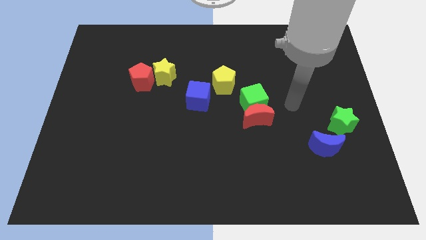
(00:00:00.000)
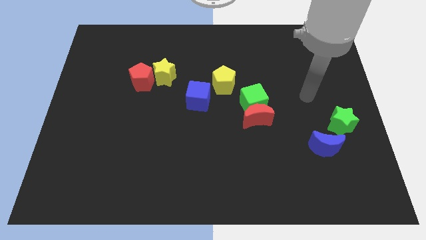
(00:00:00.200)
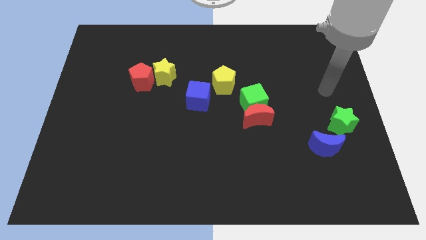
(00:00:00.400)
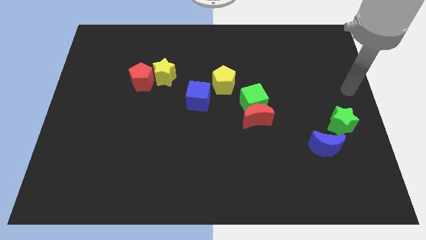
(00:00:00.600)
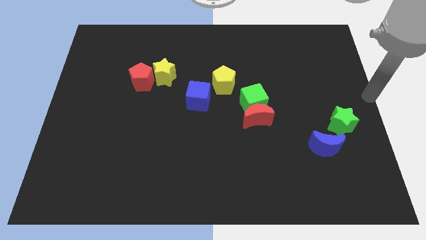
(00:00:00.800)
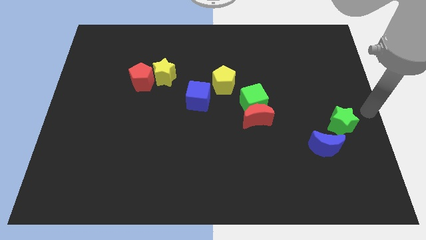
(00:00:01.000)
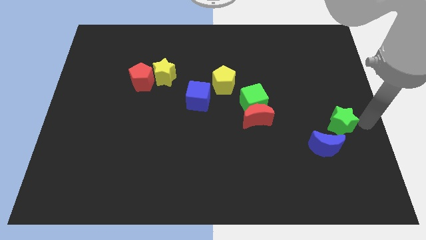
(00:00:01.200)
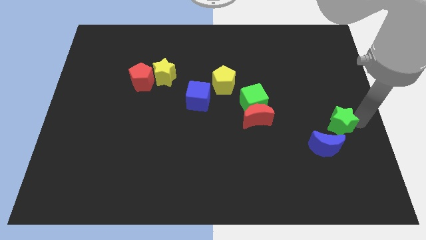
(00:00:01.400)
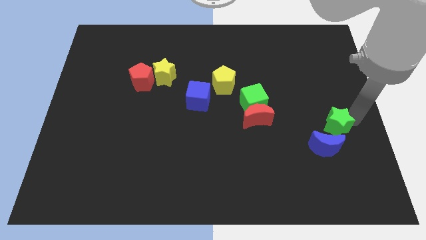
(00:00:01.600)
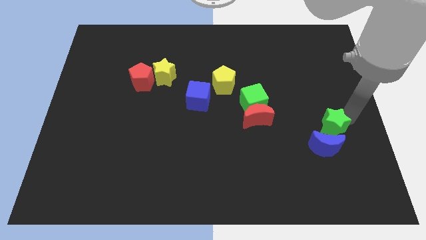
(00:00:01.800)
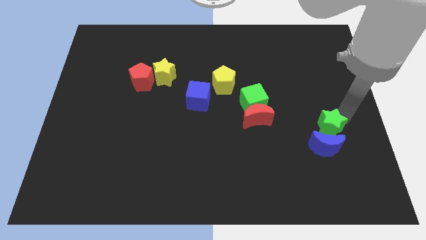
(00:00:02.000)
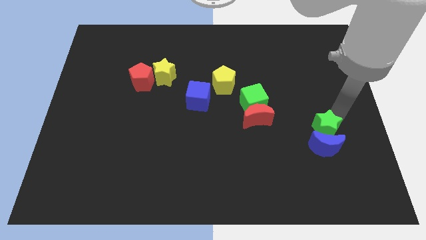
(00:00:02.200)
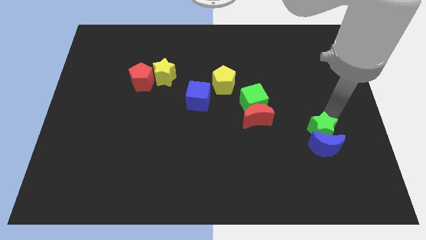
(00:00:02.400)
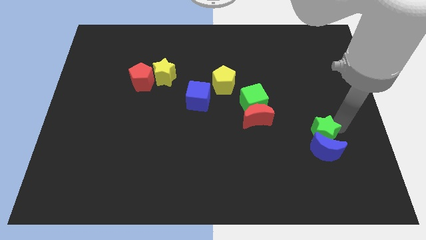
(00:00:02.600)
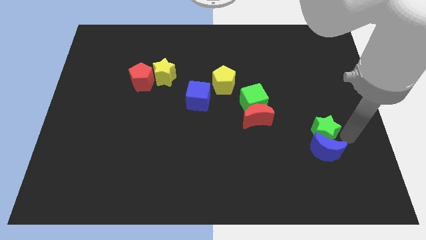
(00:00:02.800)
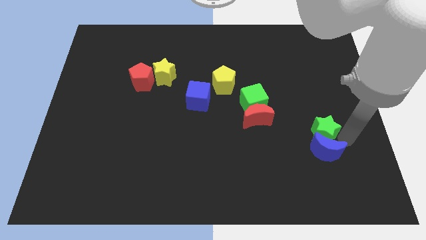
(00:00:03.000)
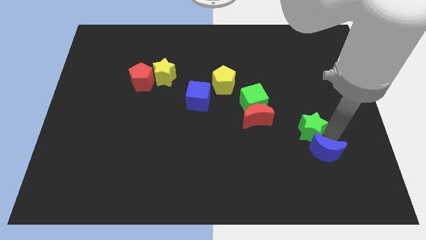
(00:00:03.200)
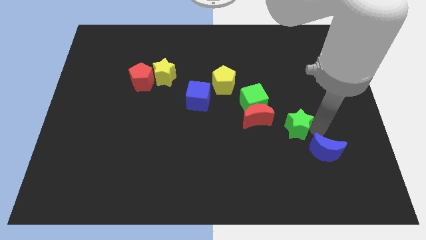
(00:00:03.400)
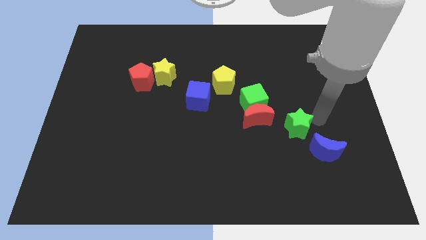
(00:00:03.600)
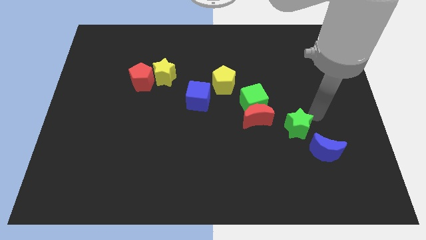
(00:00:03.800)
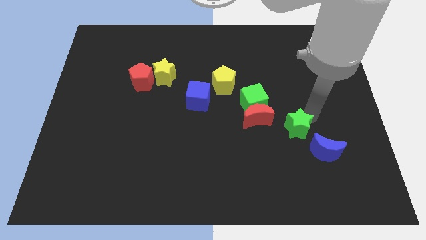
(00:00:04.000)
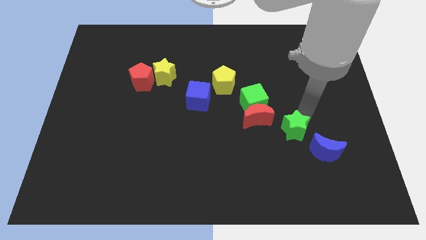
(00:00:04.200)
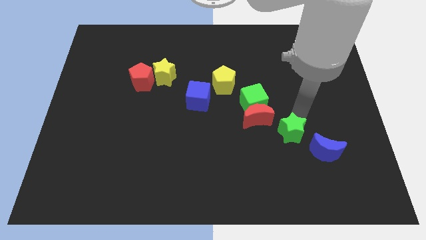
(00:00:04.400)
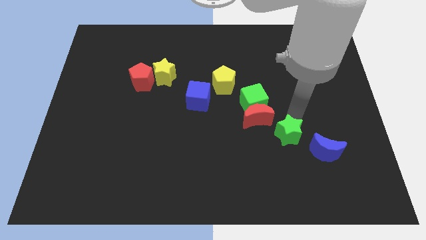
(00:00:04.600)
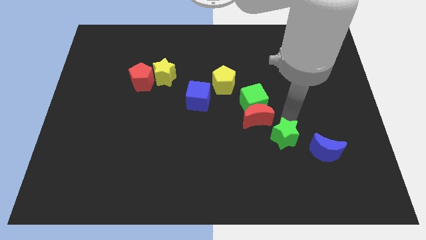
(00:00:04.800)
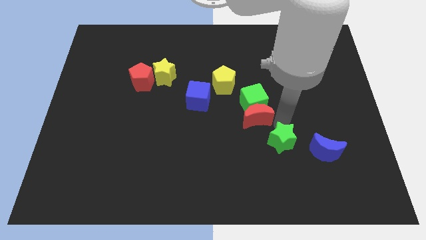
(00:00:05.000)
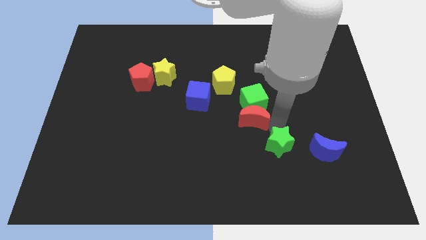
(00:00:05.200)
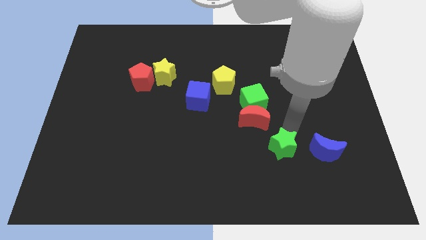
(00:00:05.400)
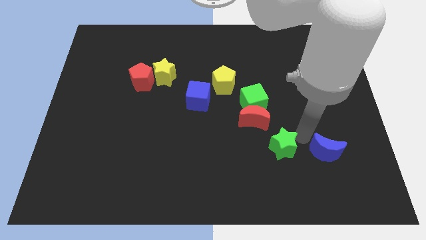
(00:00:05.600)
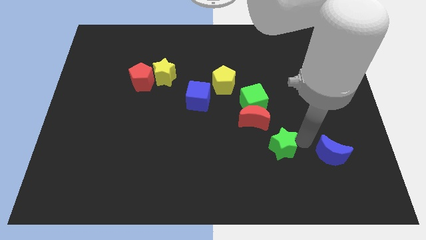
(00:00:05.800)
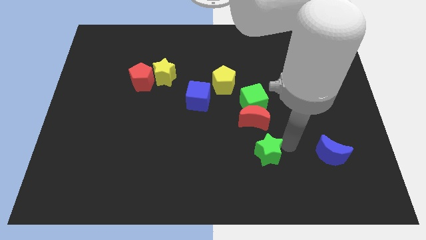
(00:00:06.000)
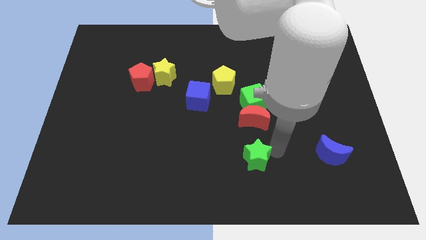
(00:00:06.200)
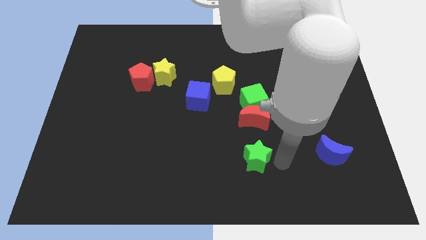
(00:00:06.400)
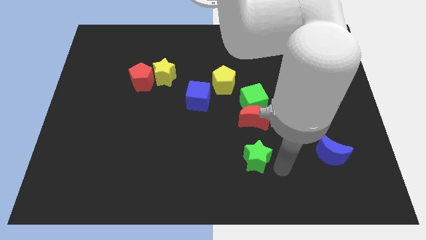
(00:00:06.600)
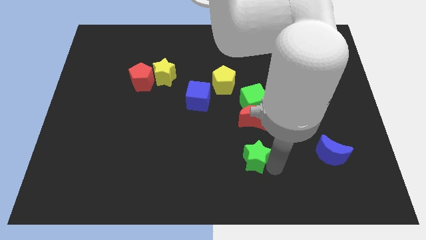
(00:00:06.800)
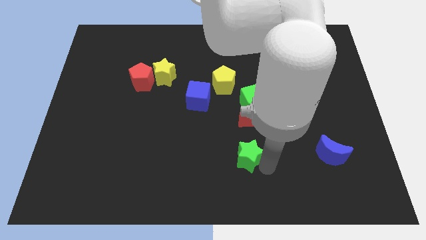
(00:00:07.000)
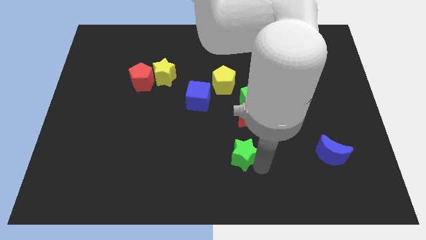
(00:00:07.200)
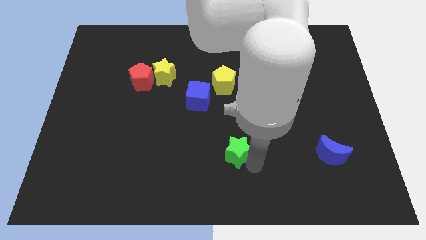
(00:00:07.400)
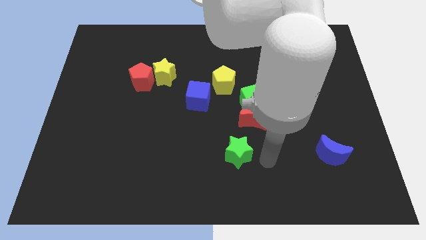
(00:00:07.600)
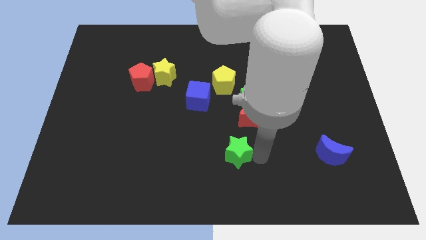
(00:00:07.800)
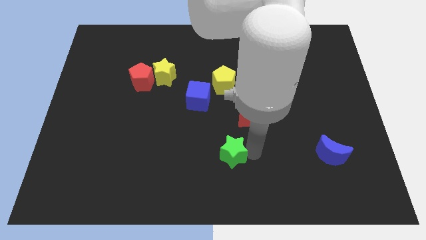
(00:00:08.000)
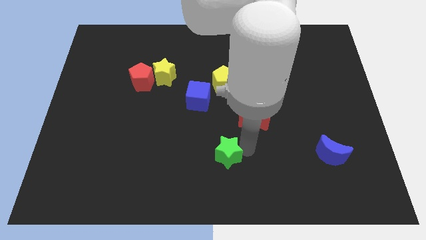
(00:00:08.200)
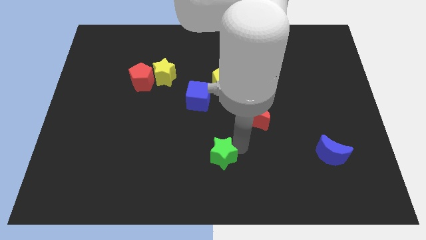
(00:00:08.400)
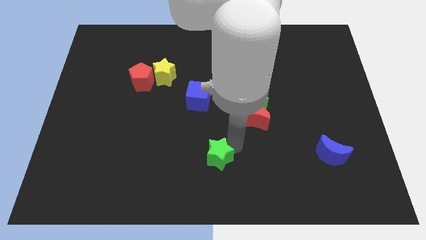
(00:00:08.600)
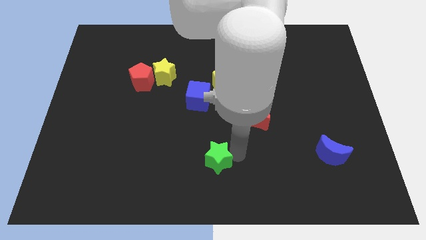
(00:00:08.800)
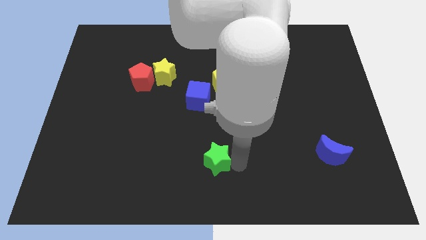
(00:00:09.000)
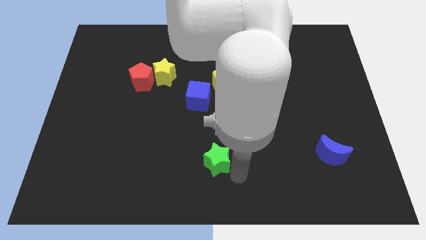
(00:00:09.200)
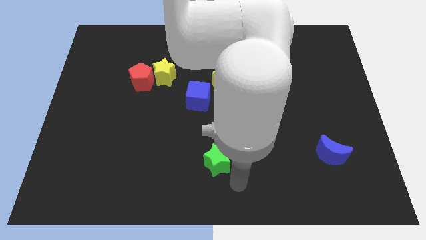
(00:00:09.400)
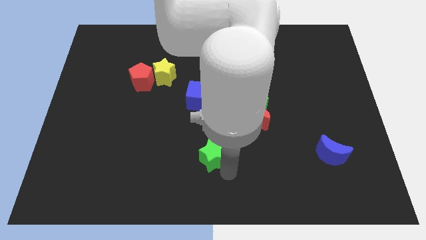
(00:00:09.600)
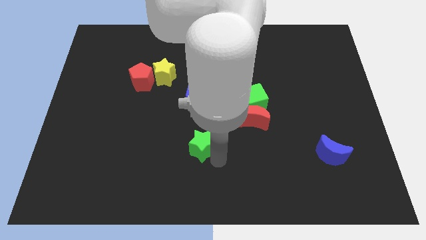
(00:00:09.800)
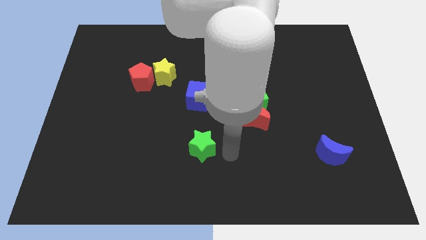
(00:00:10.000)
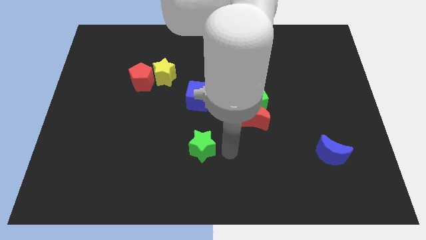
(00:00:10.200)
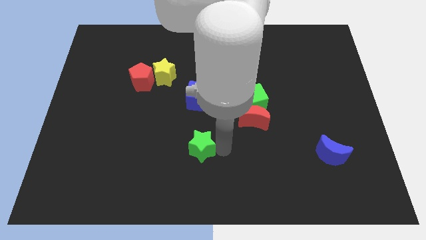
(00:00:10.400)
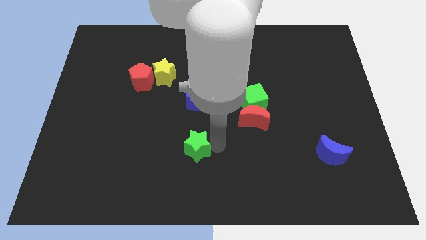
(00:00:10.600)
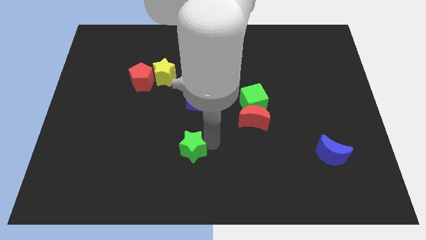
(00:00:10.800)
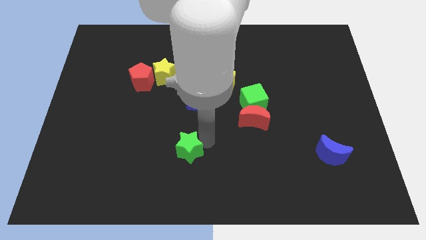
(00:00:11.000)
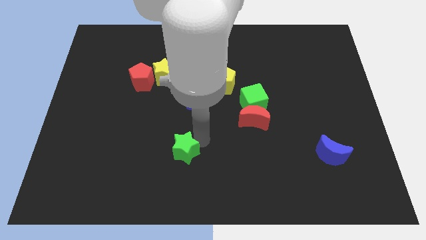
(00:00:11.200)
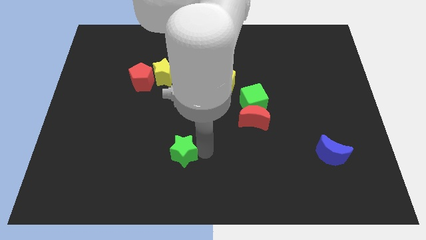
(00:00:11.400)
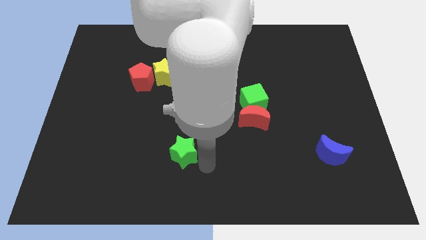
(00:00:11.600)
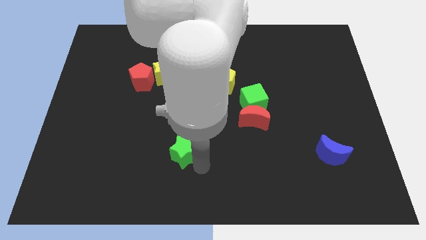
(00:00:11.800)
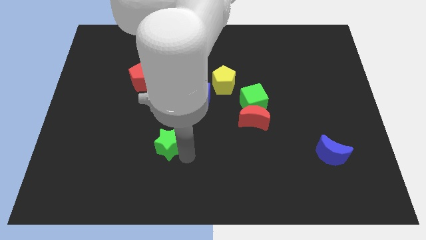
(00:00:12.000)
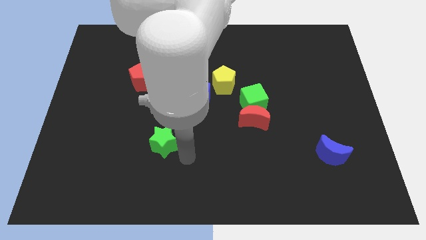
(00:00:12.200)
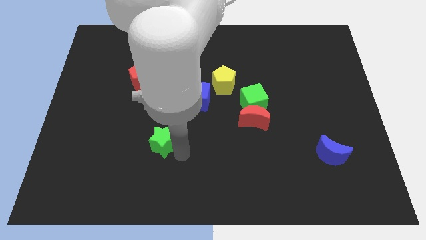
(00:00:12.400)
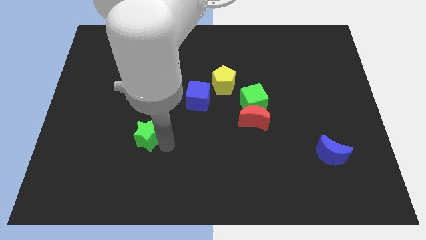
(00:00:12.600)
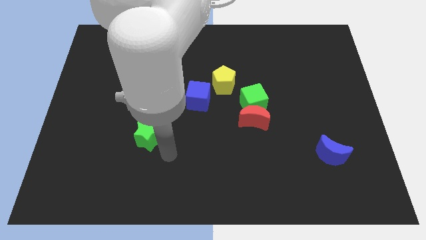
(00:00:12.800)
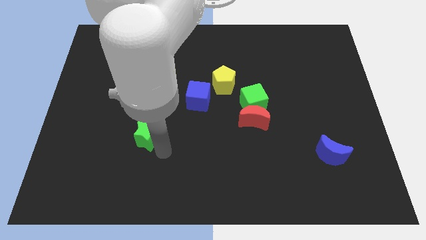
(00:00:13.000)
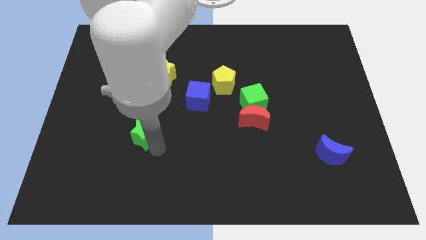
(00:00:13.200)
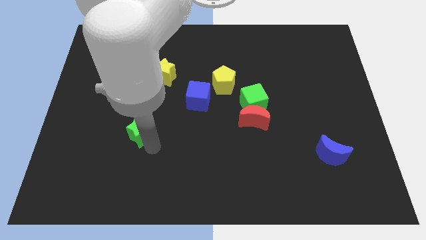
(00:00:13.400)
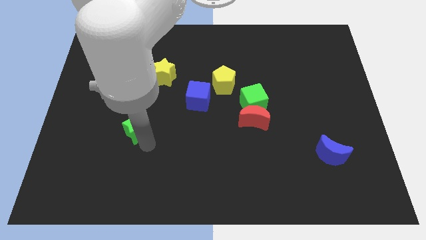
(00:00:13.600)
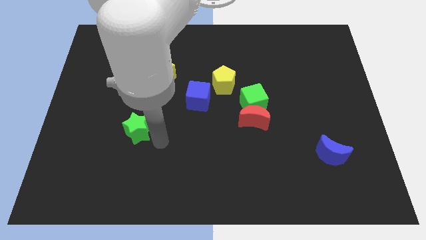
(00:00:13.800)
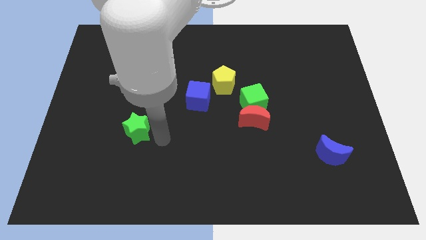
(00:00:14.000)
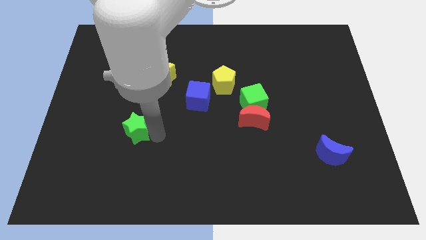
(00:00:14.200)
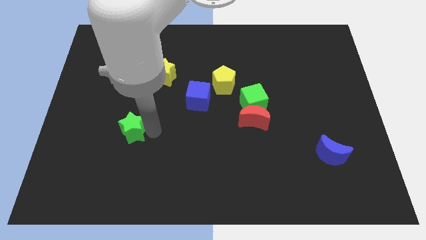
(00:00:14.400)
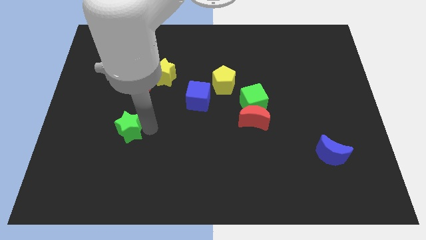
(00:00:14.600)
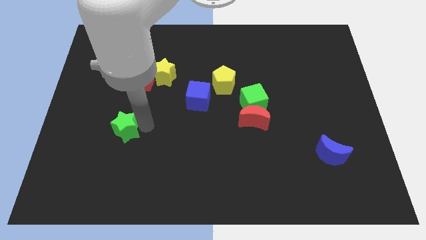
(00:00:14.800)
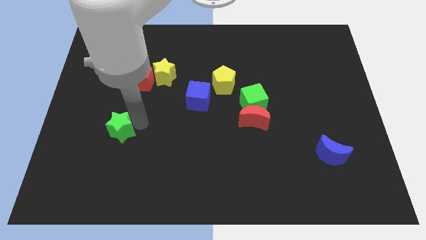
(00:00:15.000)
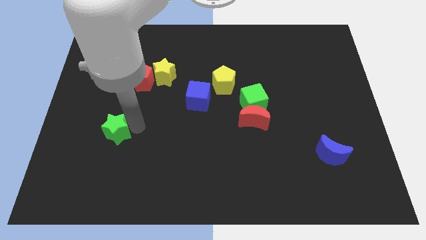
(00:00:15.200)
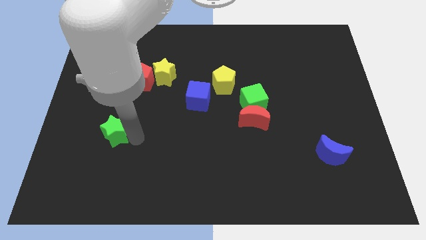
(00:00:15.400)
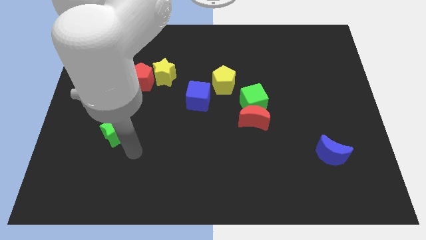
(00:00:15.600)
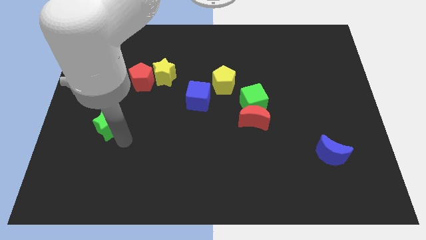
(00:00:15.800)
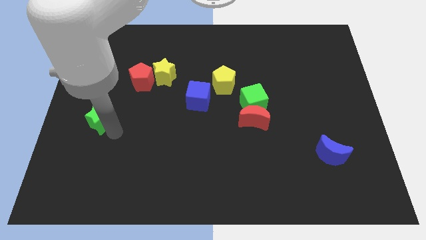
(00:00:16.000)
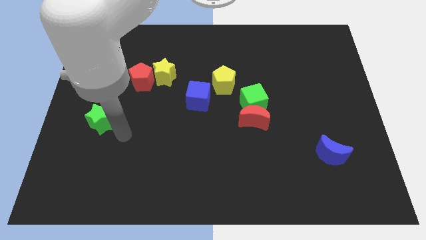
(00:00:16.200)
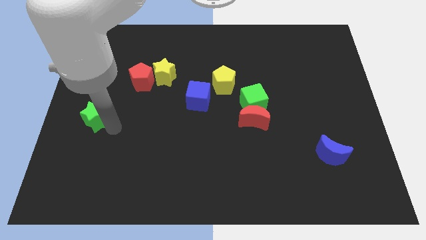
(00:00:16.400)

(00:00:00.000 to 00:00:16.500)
slide the green star to the left side of the board
